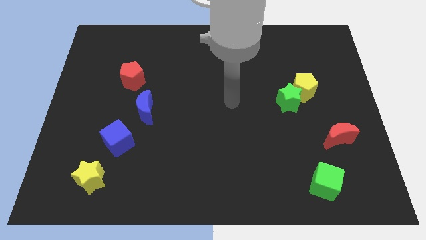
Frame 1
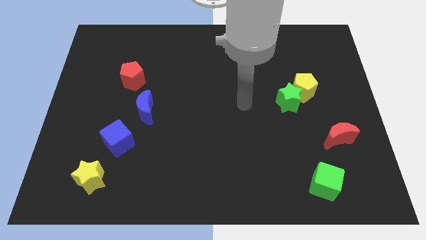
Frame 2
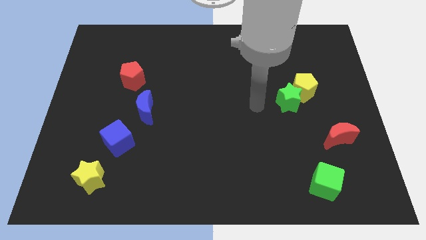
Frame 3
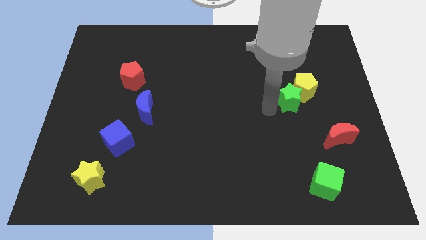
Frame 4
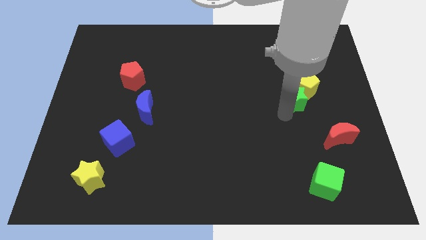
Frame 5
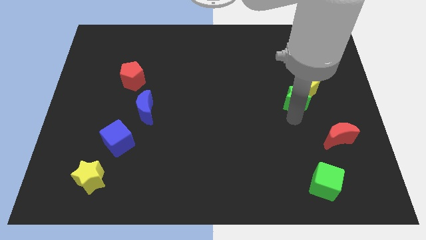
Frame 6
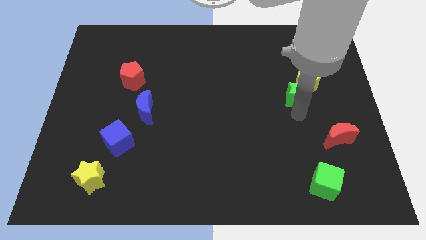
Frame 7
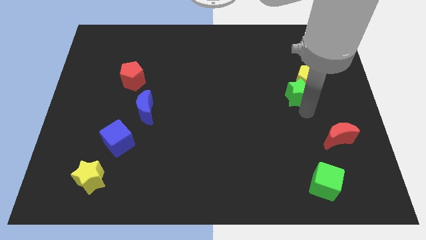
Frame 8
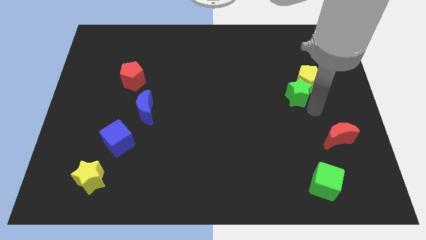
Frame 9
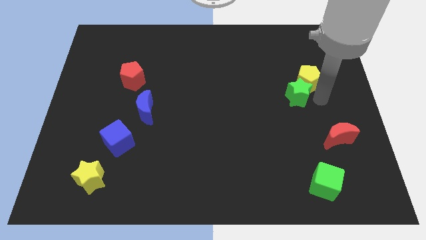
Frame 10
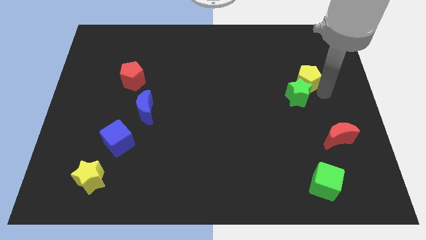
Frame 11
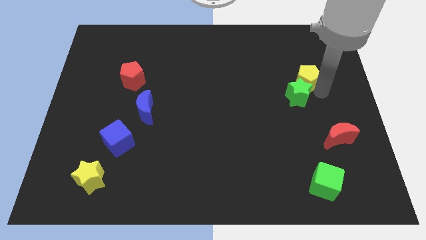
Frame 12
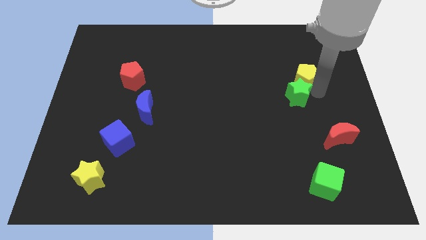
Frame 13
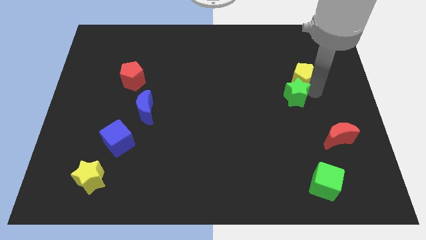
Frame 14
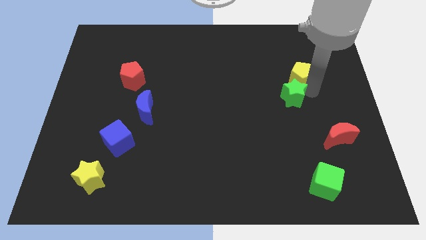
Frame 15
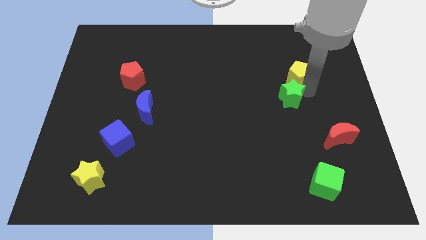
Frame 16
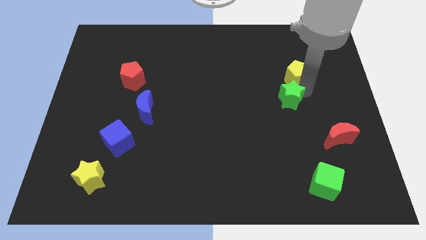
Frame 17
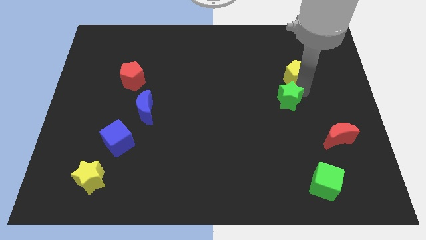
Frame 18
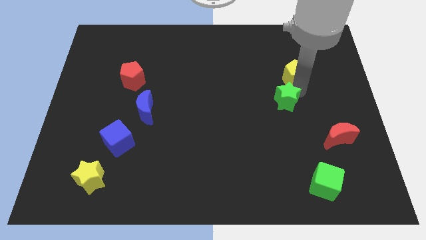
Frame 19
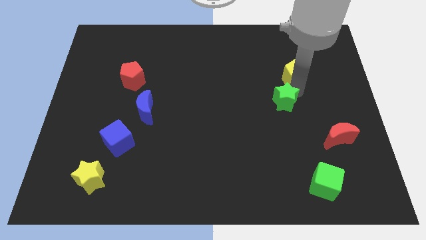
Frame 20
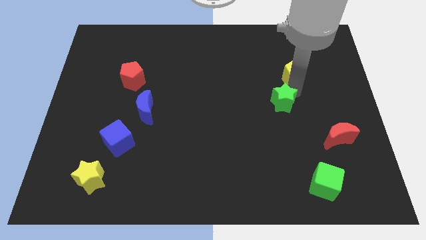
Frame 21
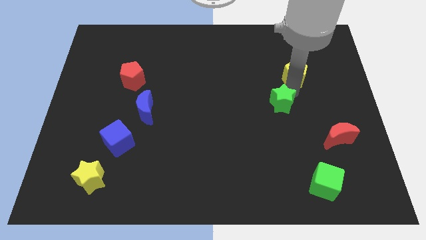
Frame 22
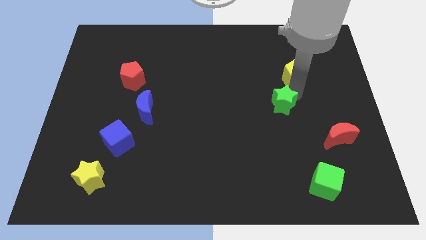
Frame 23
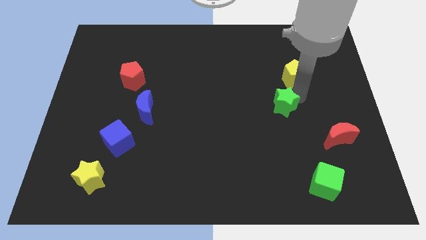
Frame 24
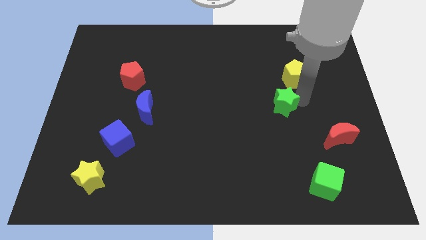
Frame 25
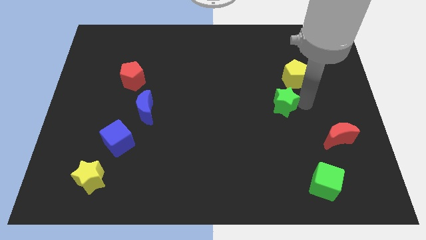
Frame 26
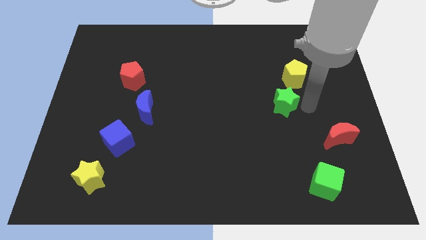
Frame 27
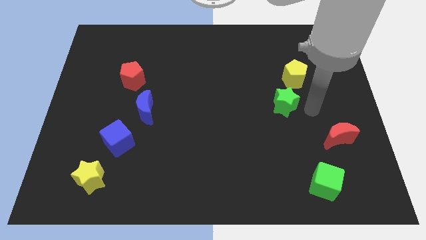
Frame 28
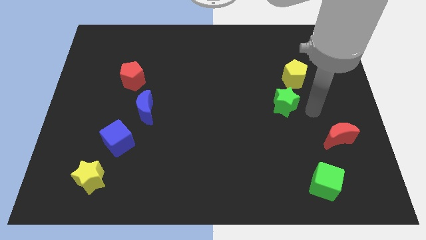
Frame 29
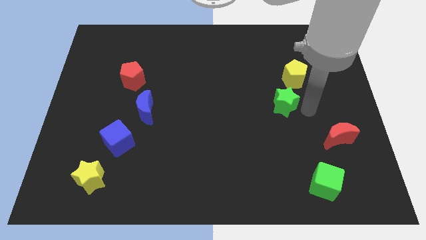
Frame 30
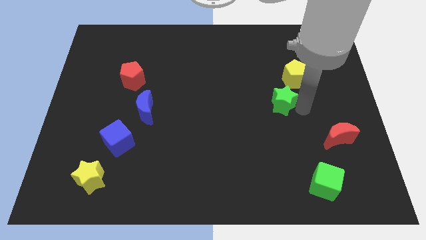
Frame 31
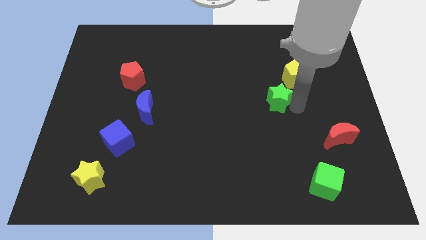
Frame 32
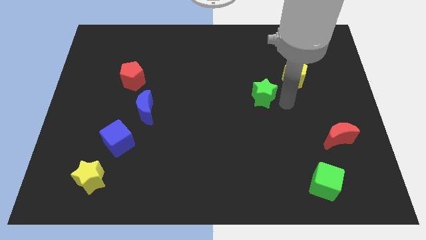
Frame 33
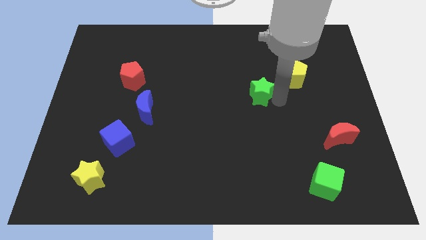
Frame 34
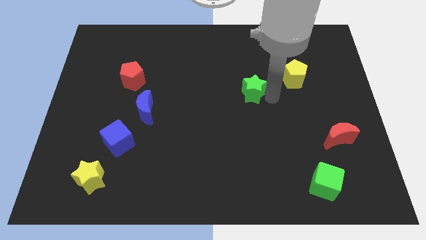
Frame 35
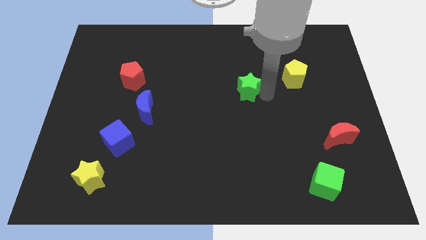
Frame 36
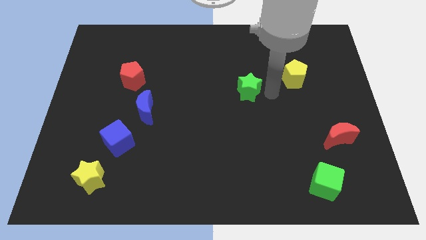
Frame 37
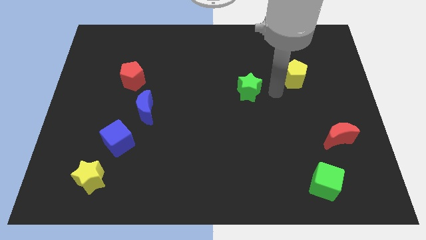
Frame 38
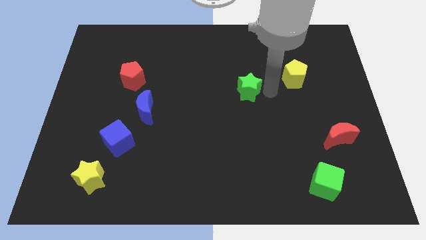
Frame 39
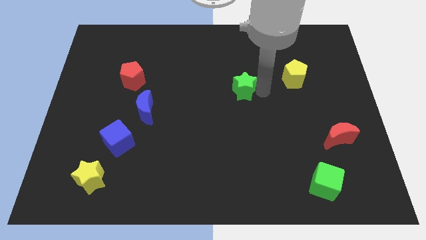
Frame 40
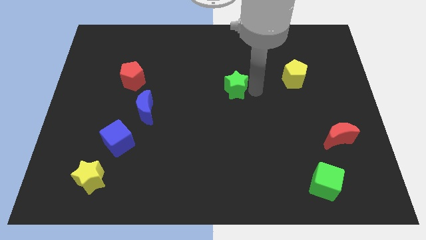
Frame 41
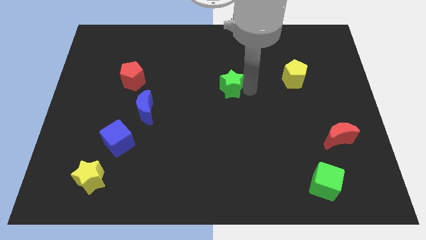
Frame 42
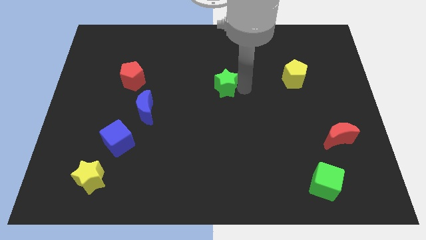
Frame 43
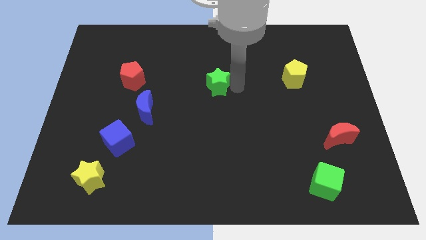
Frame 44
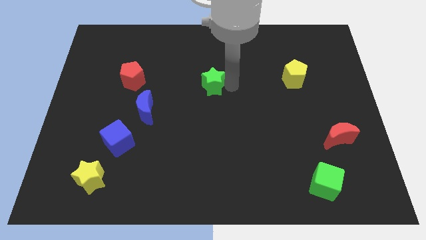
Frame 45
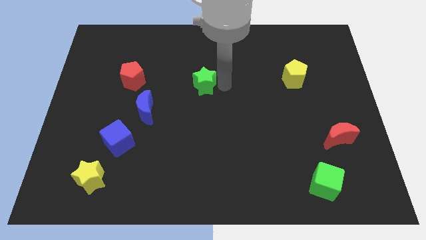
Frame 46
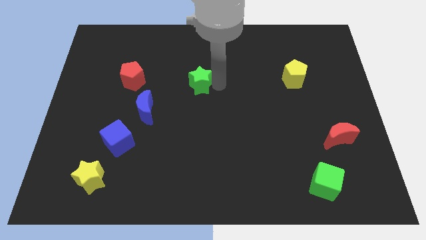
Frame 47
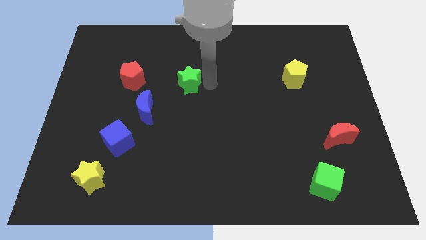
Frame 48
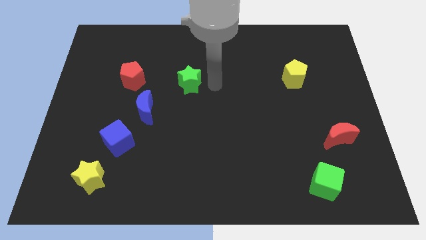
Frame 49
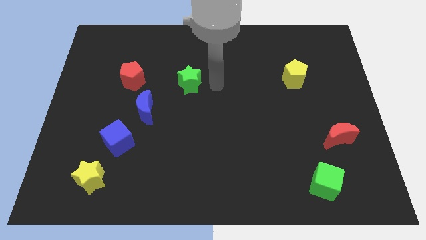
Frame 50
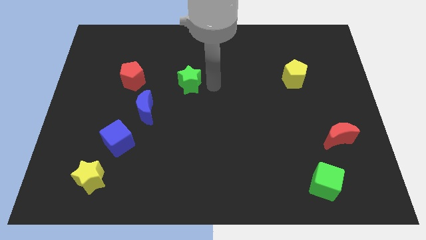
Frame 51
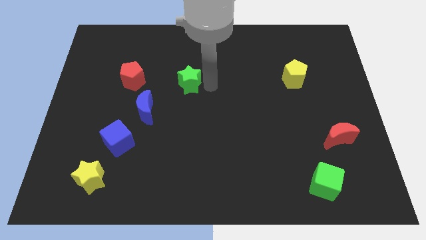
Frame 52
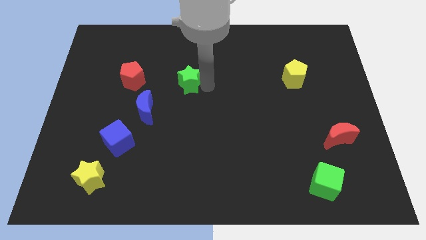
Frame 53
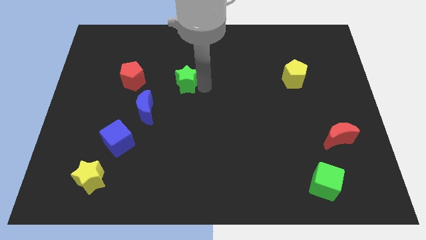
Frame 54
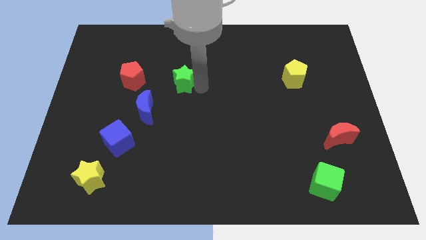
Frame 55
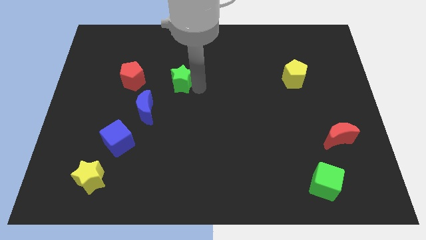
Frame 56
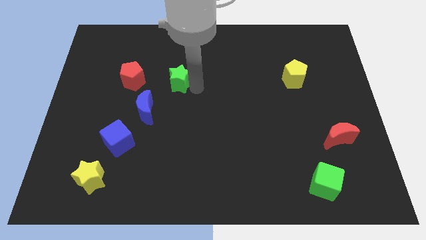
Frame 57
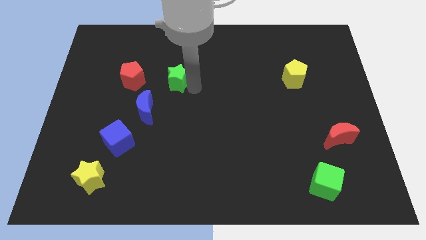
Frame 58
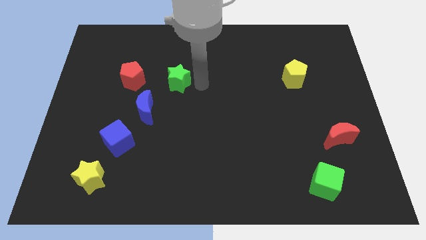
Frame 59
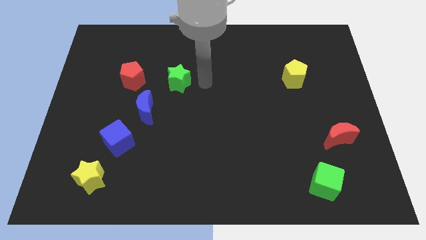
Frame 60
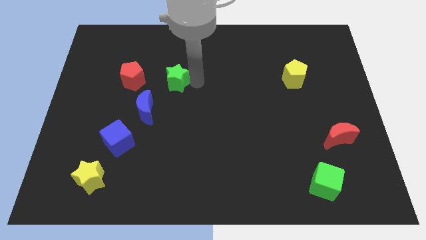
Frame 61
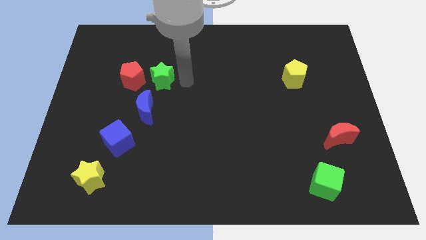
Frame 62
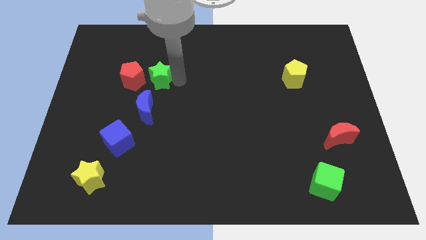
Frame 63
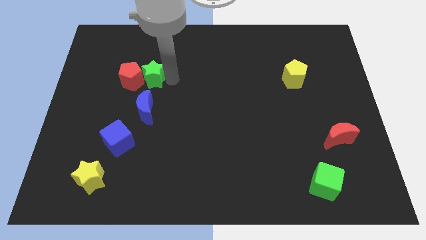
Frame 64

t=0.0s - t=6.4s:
slide the green star towards the red pentagon
